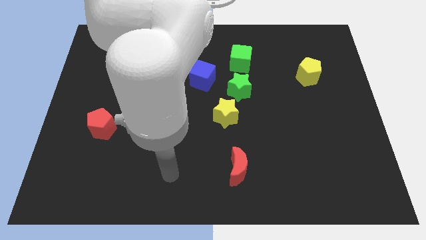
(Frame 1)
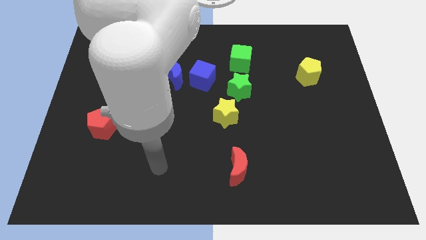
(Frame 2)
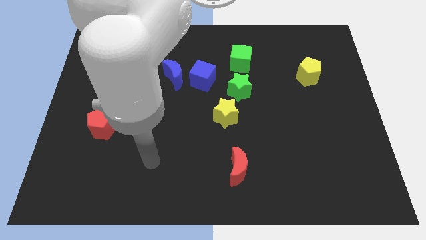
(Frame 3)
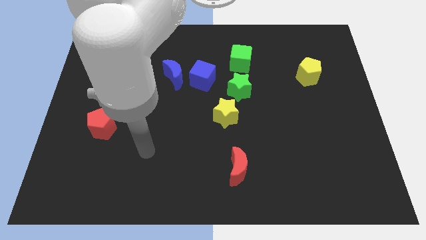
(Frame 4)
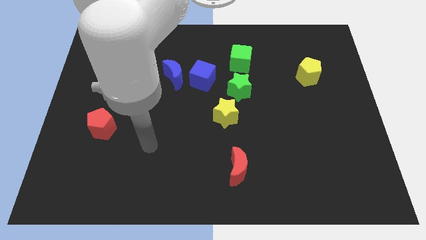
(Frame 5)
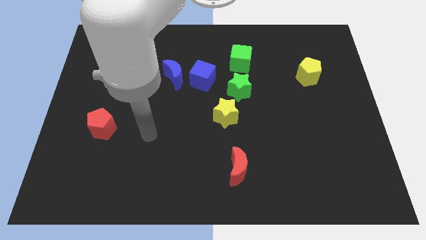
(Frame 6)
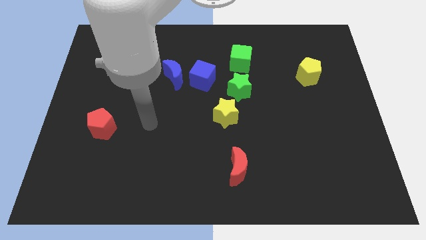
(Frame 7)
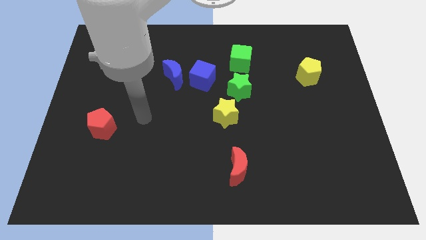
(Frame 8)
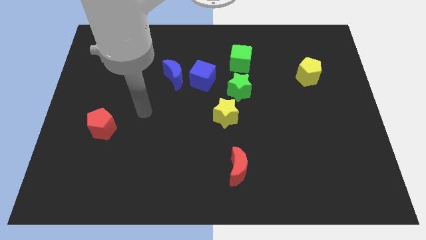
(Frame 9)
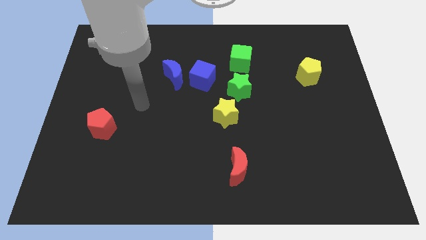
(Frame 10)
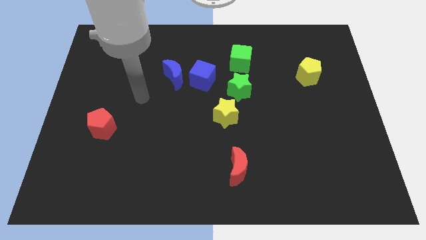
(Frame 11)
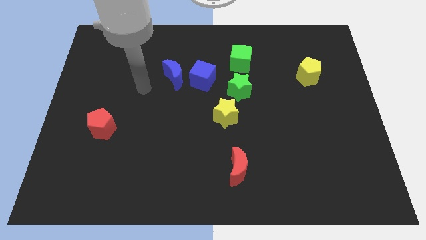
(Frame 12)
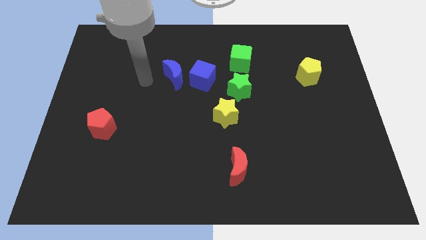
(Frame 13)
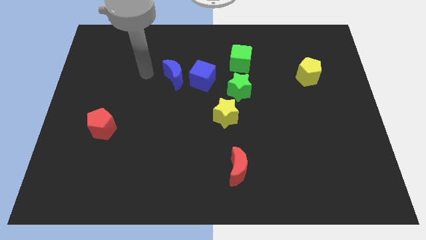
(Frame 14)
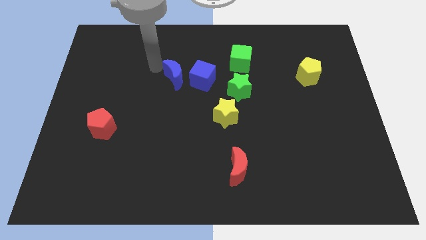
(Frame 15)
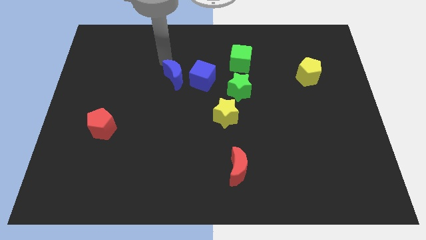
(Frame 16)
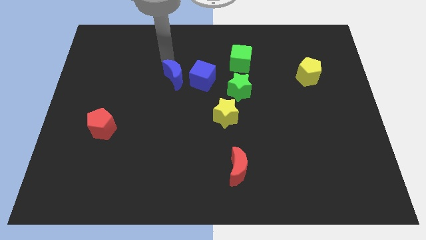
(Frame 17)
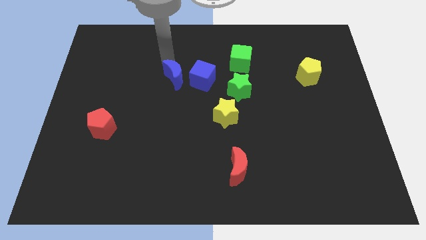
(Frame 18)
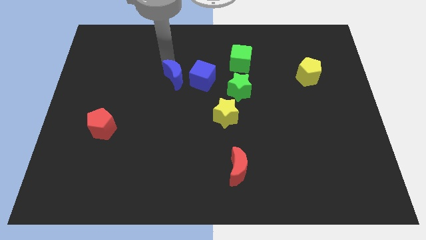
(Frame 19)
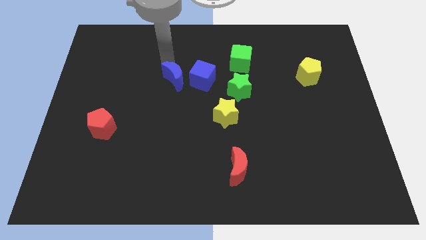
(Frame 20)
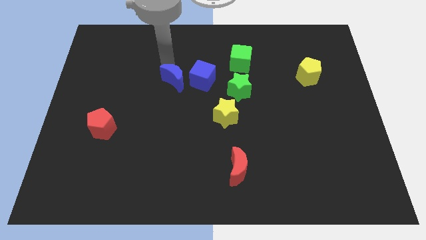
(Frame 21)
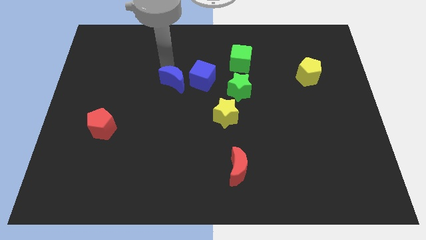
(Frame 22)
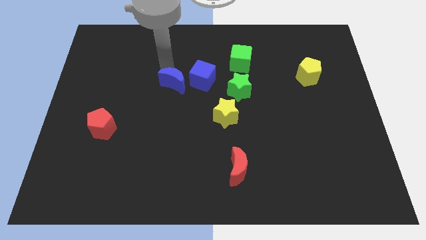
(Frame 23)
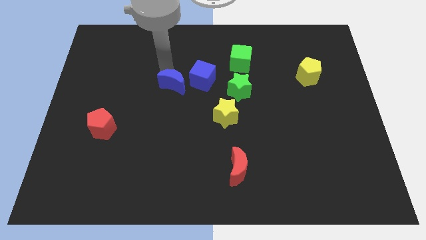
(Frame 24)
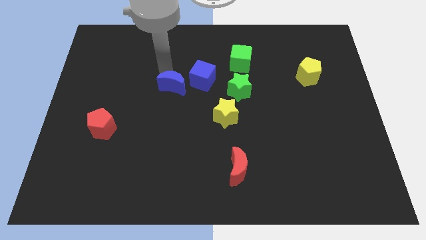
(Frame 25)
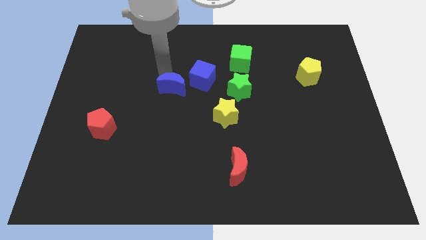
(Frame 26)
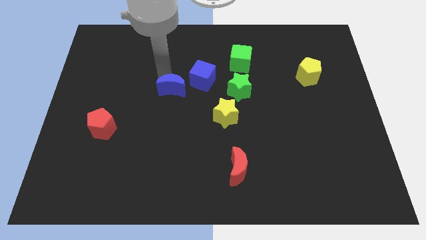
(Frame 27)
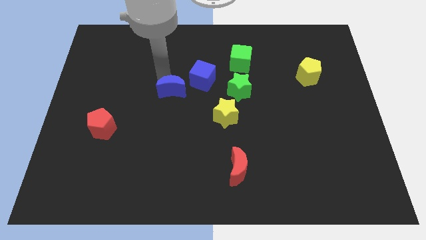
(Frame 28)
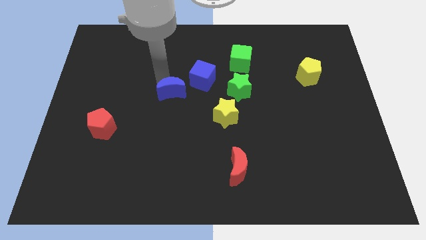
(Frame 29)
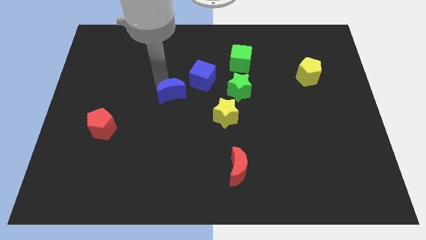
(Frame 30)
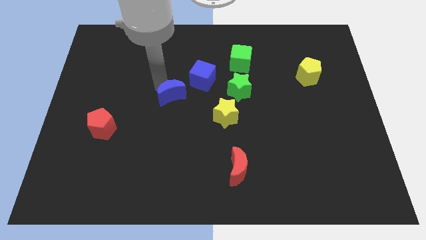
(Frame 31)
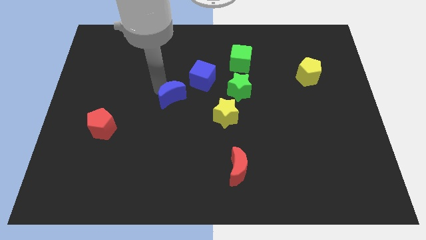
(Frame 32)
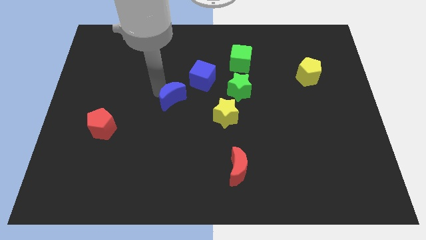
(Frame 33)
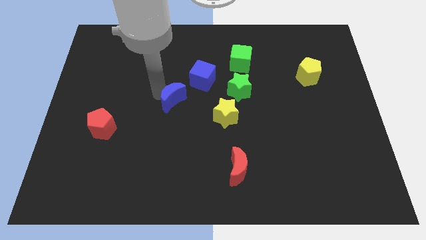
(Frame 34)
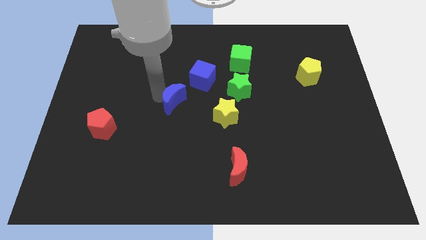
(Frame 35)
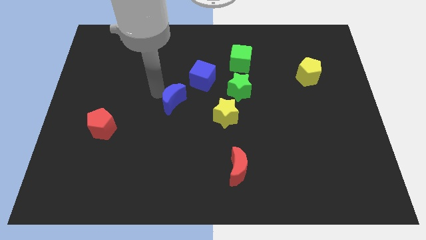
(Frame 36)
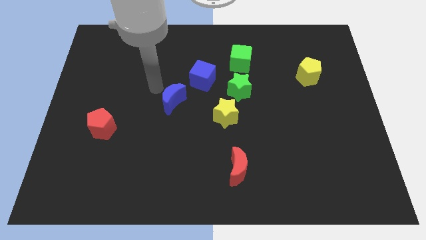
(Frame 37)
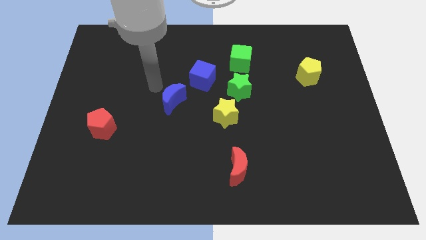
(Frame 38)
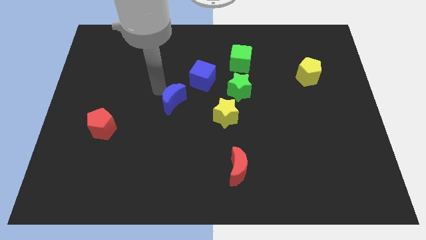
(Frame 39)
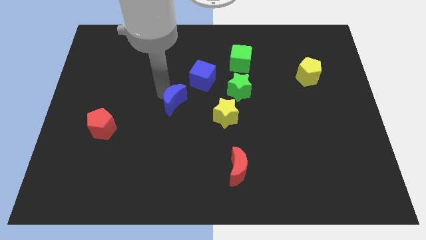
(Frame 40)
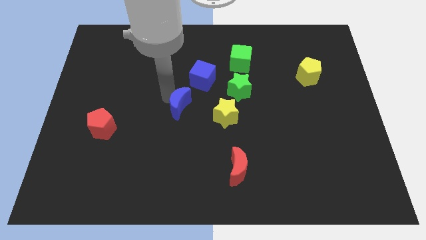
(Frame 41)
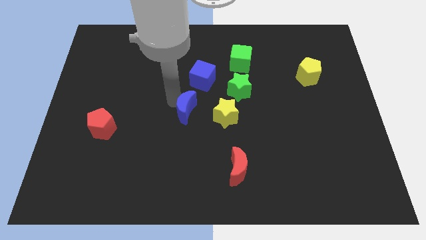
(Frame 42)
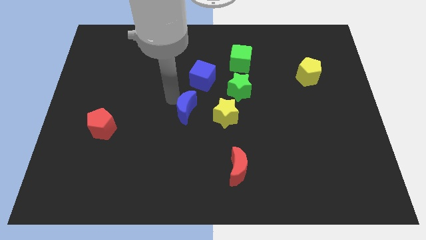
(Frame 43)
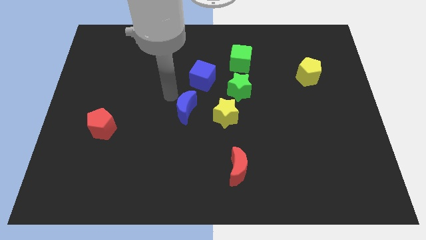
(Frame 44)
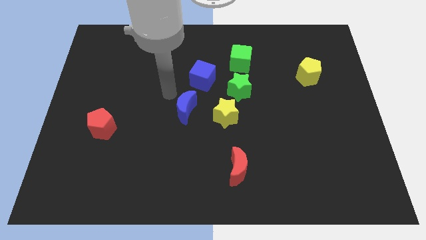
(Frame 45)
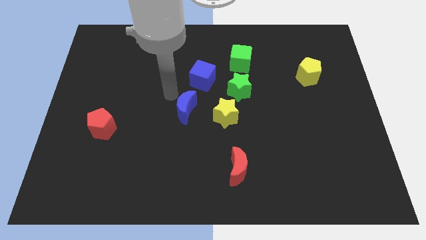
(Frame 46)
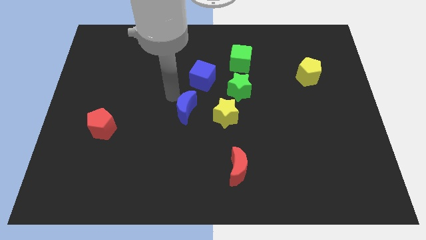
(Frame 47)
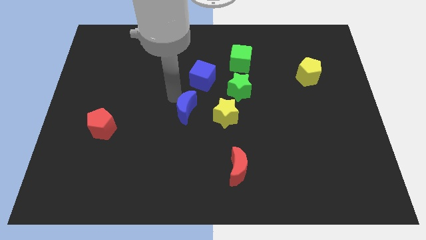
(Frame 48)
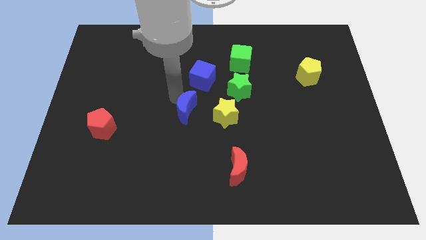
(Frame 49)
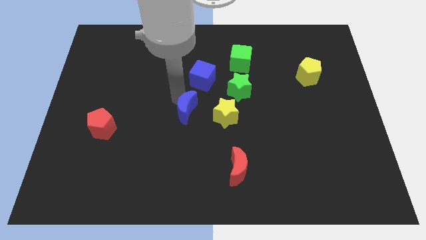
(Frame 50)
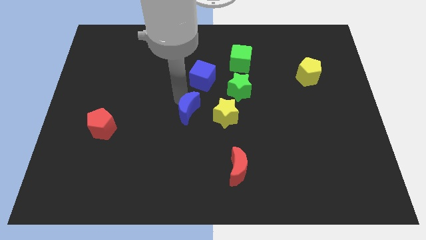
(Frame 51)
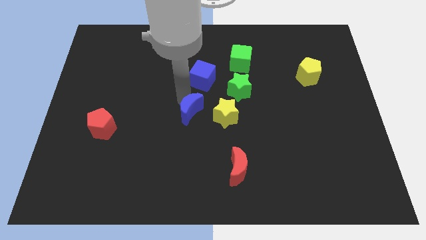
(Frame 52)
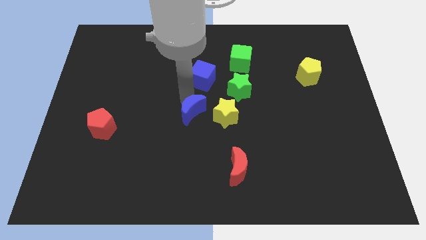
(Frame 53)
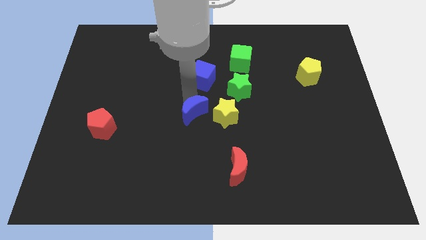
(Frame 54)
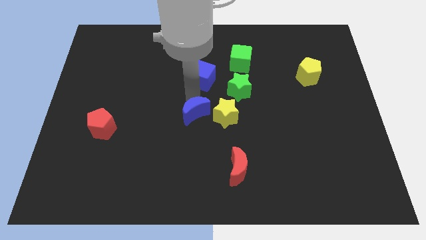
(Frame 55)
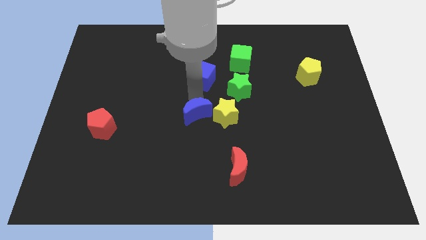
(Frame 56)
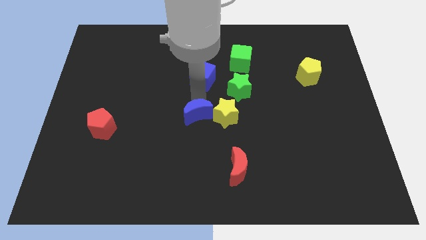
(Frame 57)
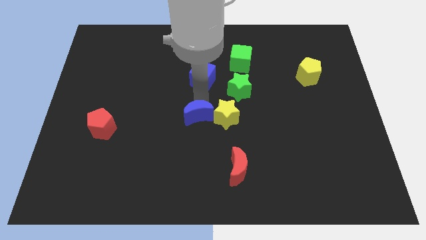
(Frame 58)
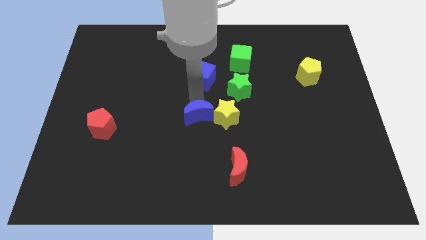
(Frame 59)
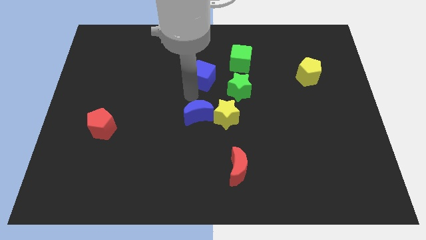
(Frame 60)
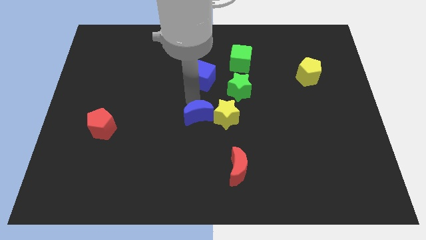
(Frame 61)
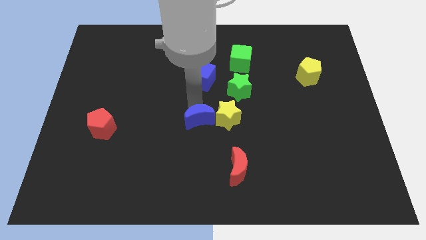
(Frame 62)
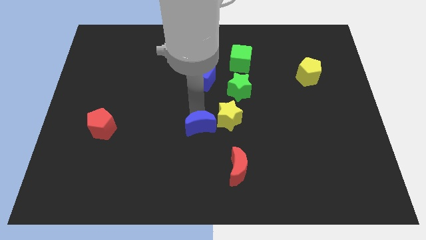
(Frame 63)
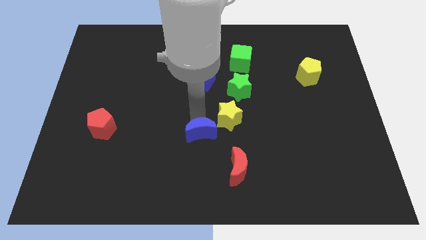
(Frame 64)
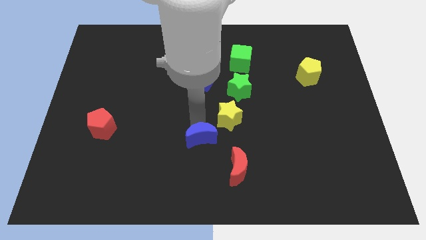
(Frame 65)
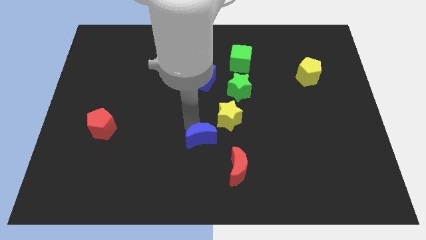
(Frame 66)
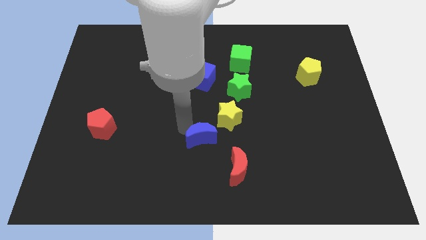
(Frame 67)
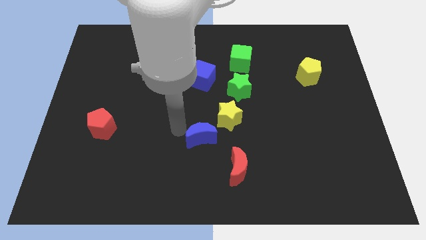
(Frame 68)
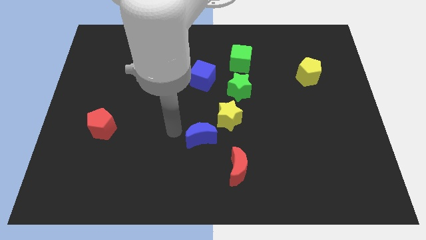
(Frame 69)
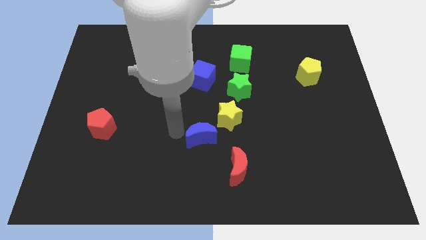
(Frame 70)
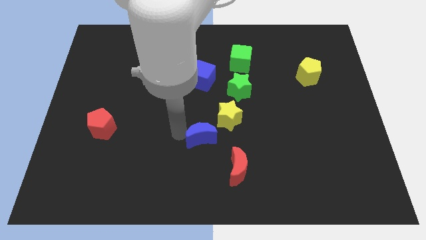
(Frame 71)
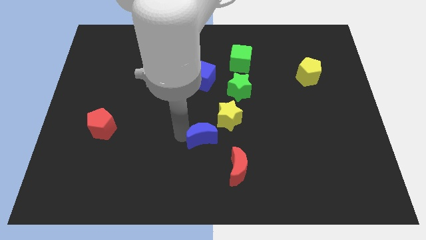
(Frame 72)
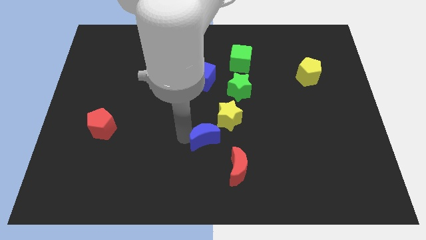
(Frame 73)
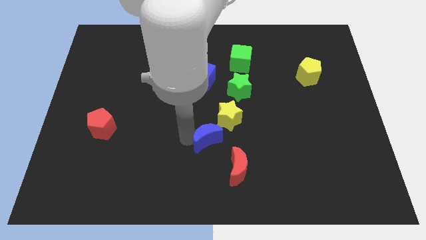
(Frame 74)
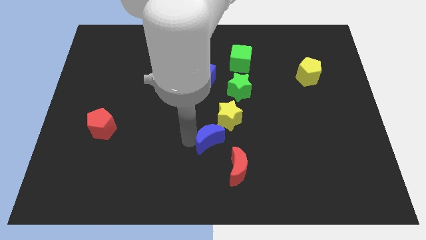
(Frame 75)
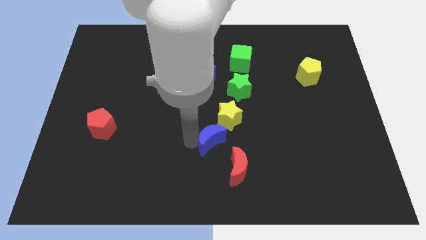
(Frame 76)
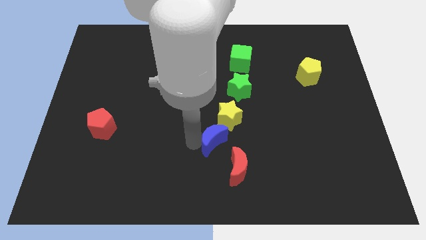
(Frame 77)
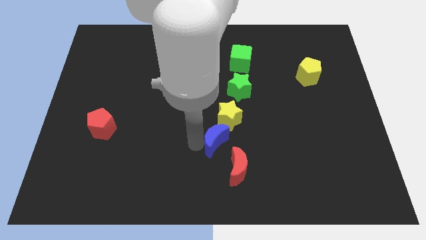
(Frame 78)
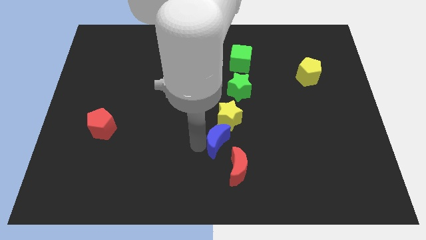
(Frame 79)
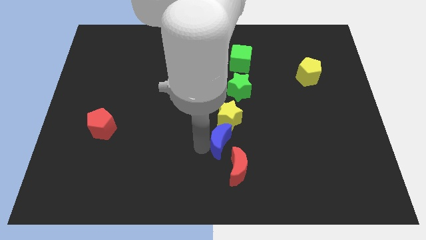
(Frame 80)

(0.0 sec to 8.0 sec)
move the blue moon down and then right

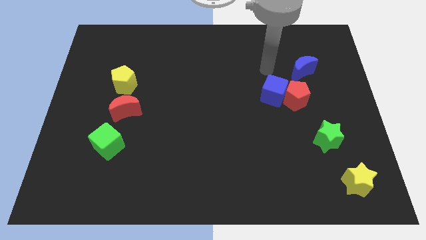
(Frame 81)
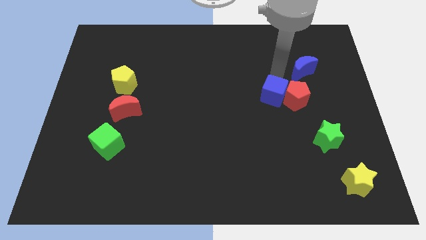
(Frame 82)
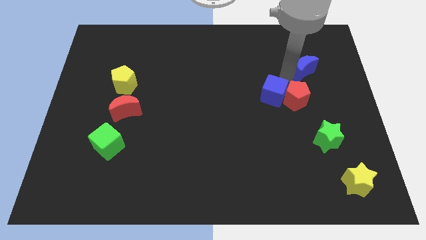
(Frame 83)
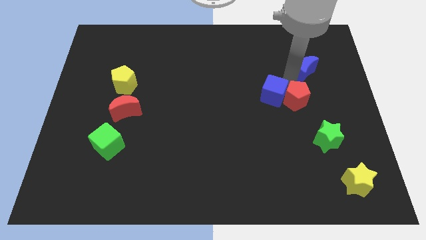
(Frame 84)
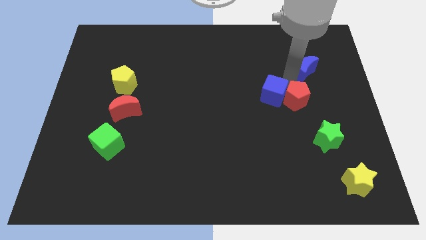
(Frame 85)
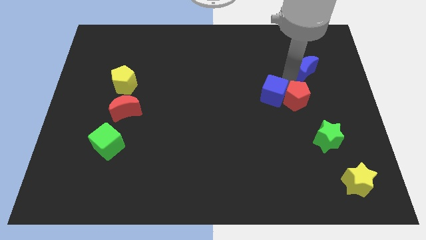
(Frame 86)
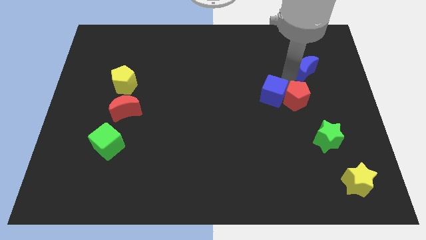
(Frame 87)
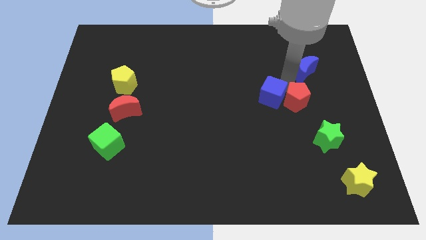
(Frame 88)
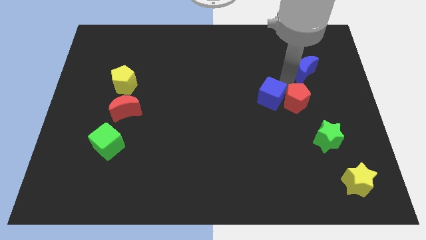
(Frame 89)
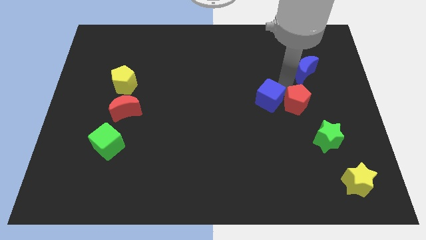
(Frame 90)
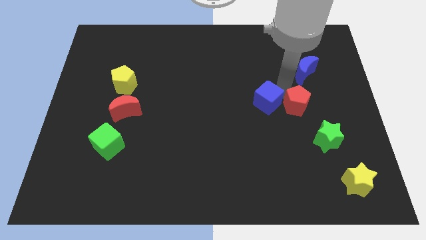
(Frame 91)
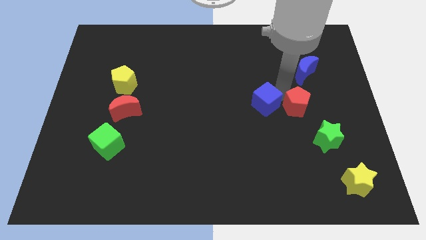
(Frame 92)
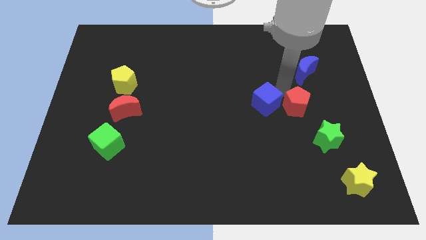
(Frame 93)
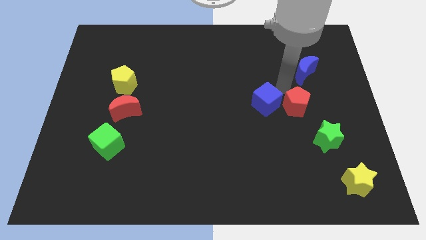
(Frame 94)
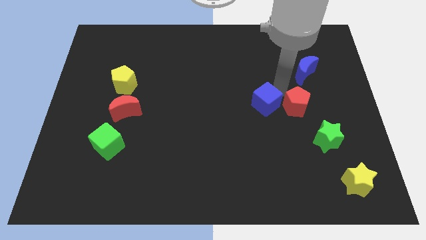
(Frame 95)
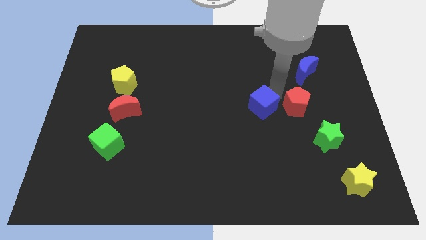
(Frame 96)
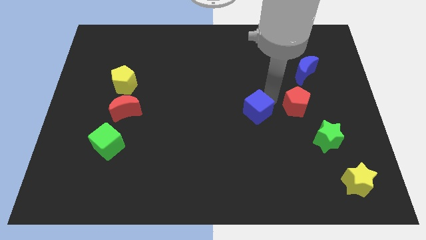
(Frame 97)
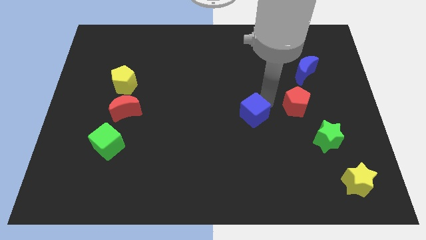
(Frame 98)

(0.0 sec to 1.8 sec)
slightly move the blue cube downwards and left
